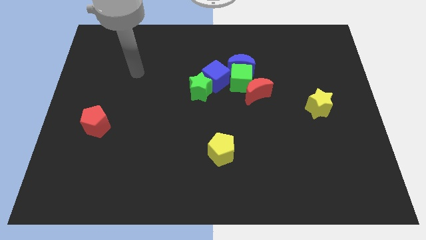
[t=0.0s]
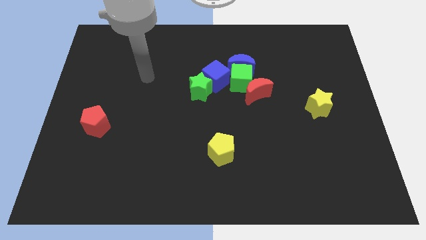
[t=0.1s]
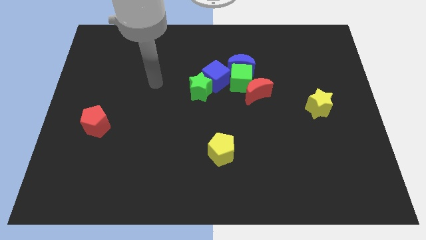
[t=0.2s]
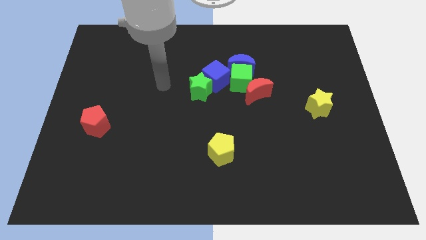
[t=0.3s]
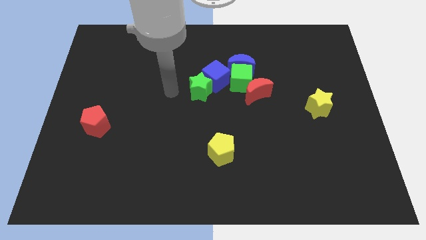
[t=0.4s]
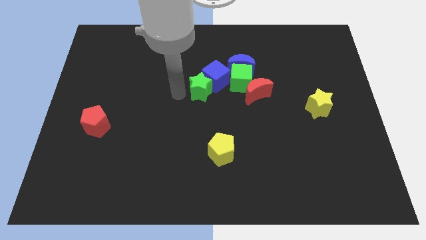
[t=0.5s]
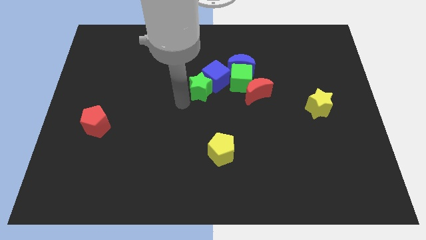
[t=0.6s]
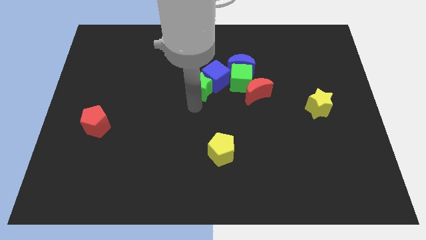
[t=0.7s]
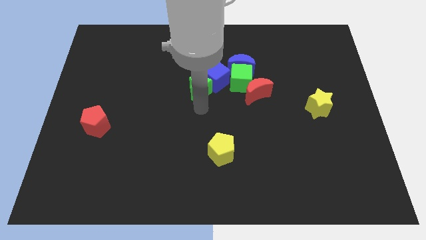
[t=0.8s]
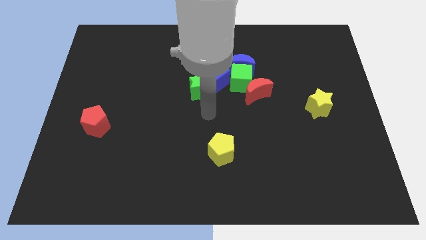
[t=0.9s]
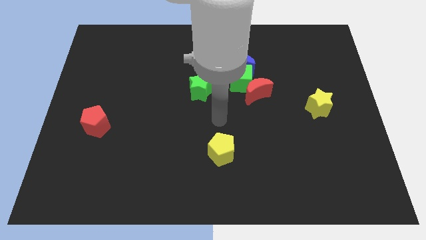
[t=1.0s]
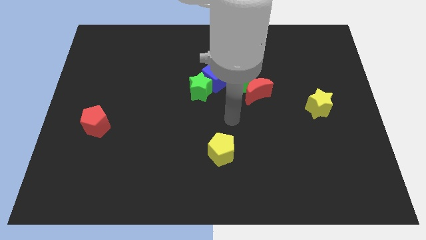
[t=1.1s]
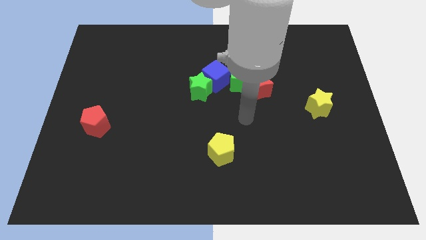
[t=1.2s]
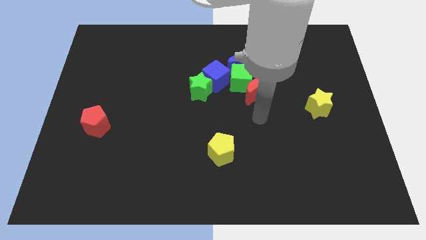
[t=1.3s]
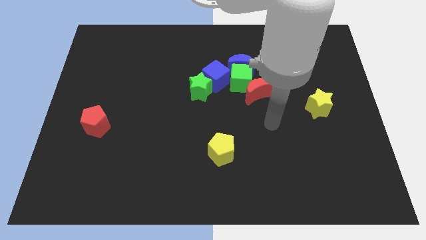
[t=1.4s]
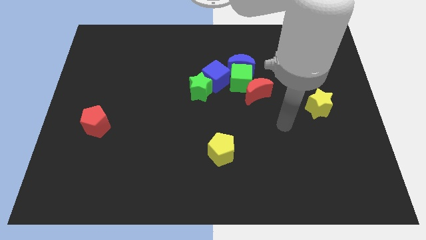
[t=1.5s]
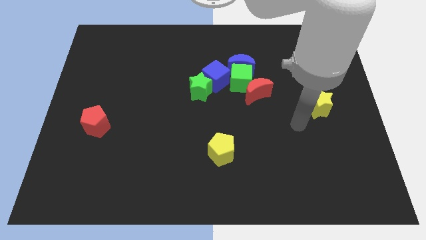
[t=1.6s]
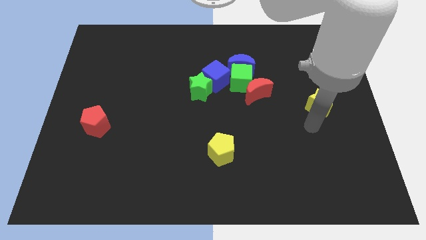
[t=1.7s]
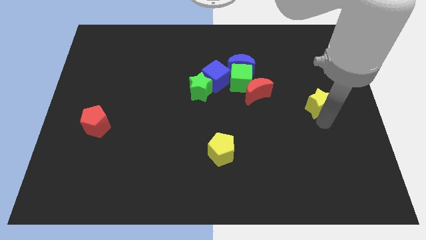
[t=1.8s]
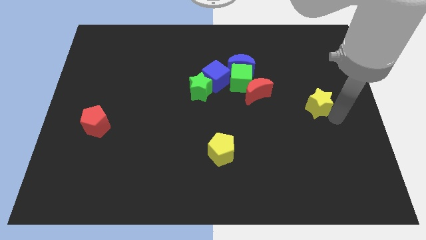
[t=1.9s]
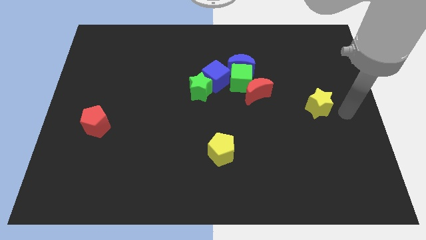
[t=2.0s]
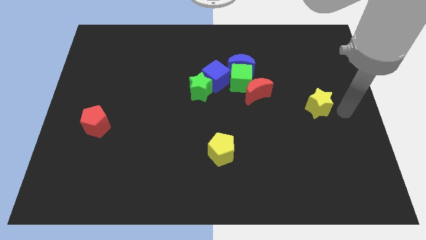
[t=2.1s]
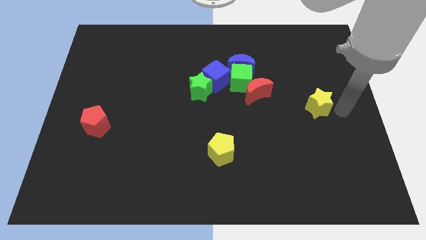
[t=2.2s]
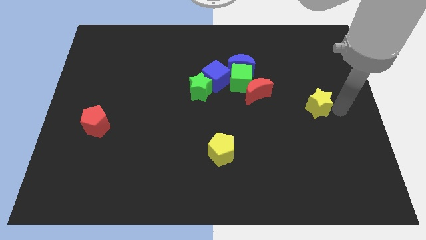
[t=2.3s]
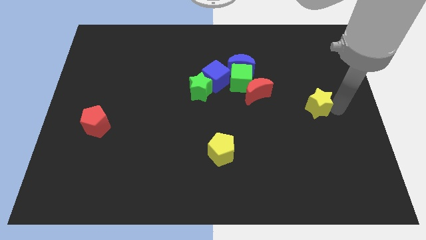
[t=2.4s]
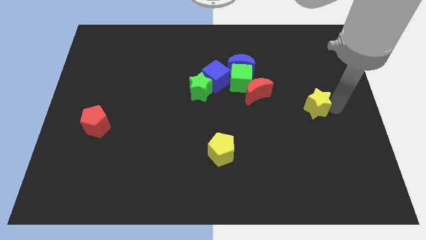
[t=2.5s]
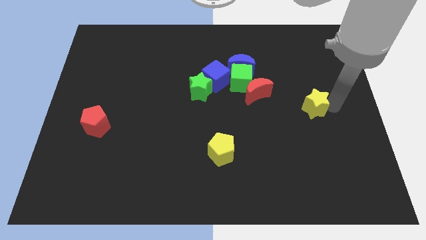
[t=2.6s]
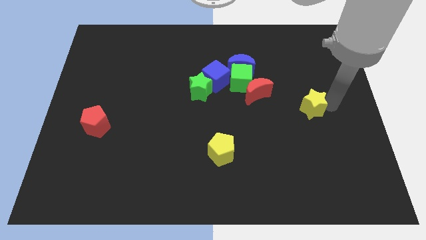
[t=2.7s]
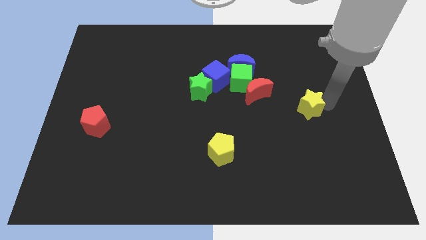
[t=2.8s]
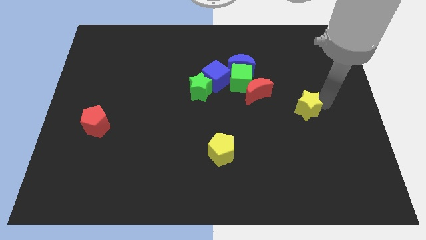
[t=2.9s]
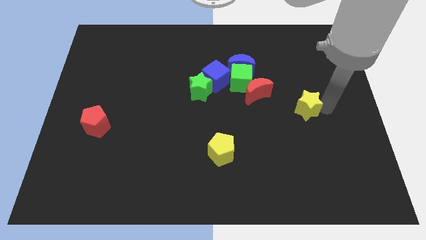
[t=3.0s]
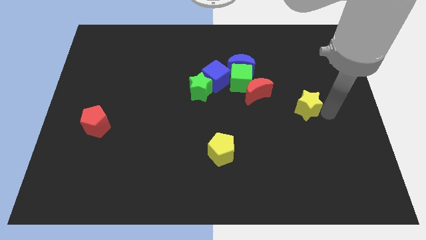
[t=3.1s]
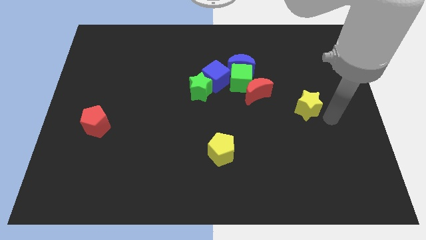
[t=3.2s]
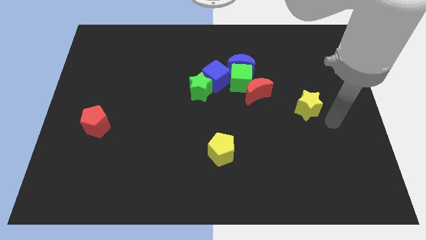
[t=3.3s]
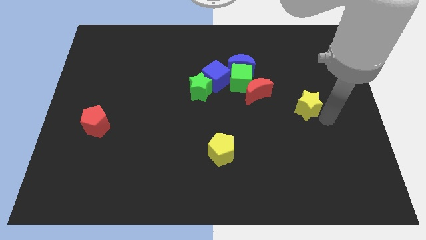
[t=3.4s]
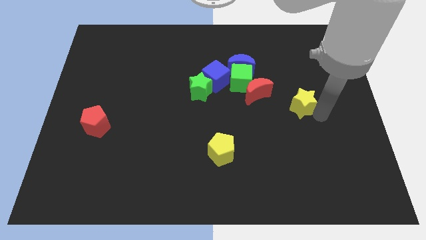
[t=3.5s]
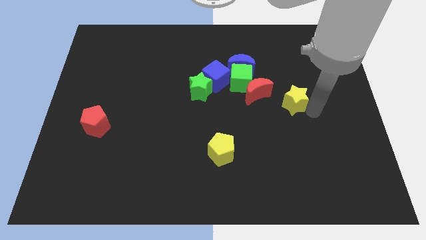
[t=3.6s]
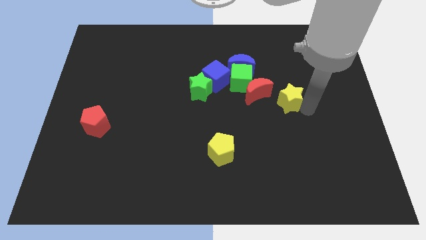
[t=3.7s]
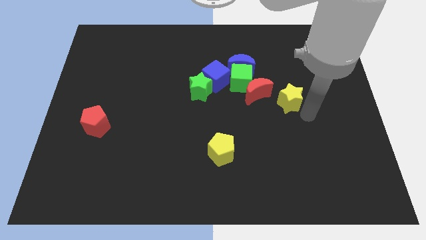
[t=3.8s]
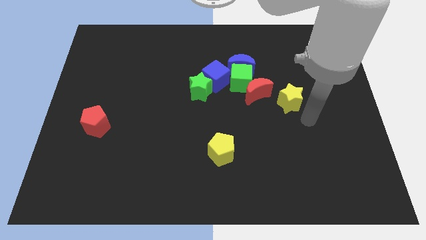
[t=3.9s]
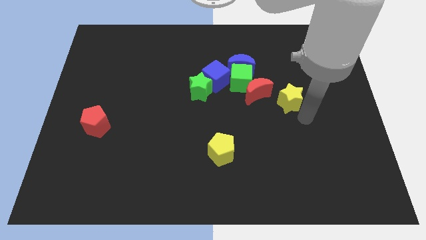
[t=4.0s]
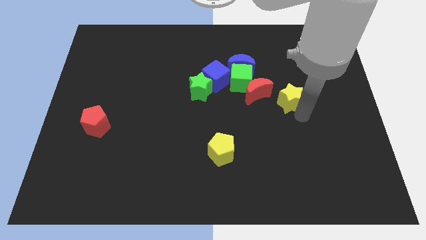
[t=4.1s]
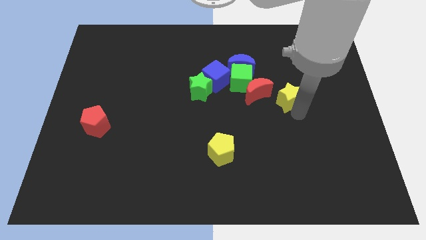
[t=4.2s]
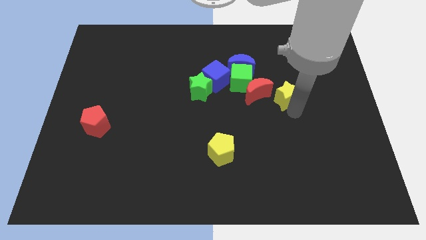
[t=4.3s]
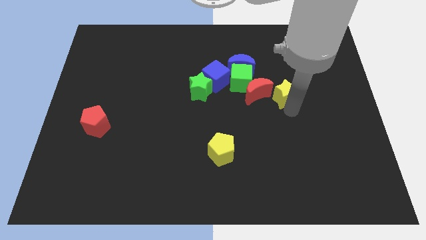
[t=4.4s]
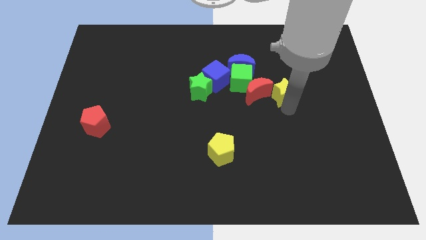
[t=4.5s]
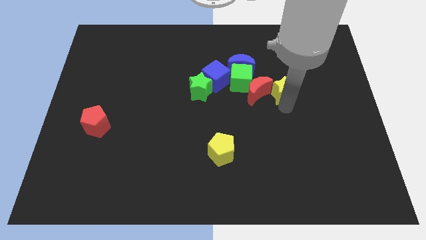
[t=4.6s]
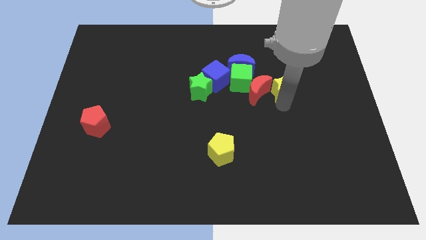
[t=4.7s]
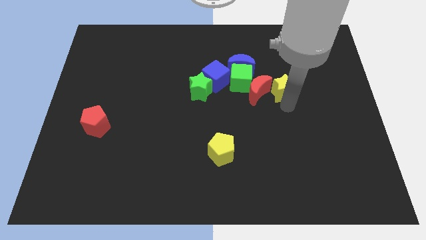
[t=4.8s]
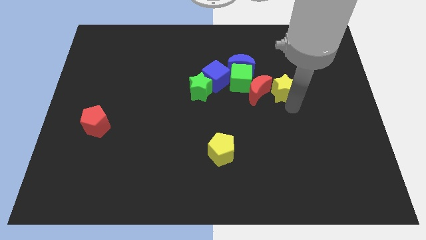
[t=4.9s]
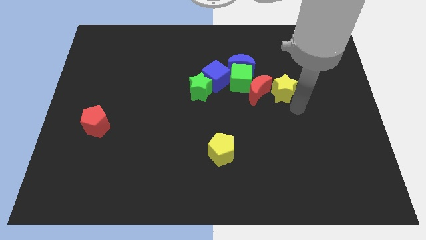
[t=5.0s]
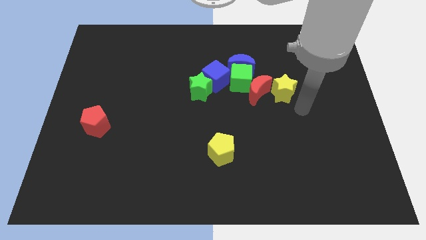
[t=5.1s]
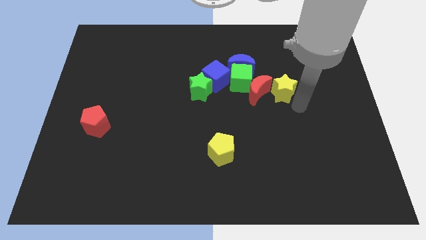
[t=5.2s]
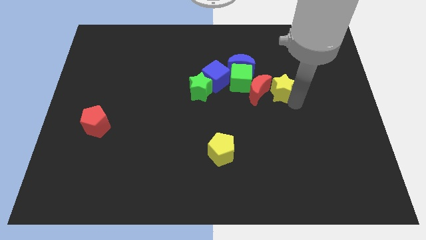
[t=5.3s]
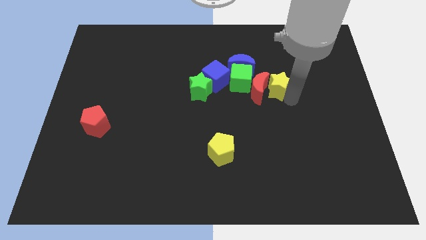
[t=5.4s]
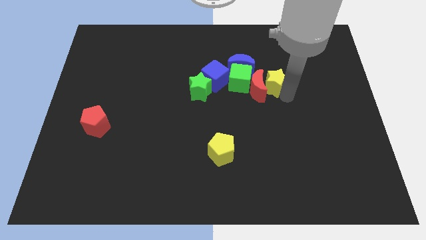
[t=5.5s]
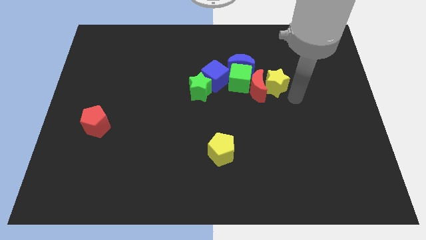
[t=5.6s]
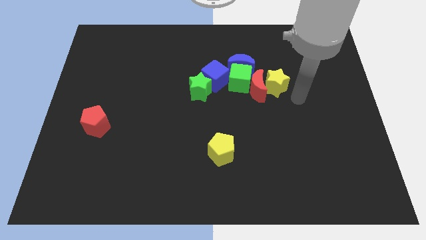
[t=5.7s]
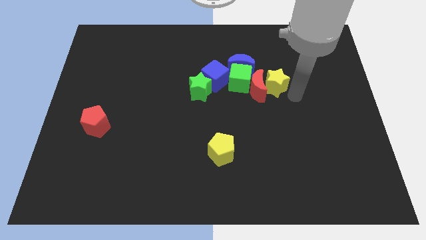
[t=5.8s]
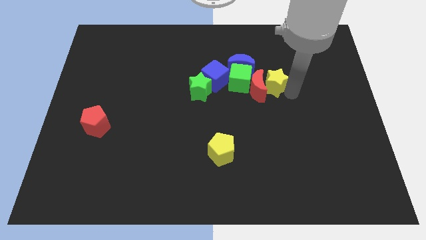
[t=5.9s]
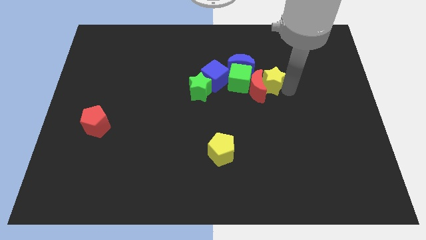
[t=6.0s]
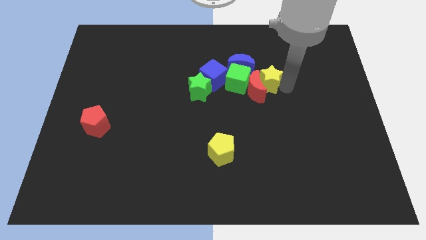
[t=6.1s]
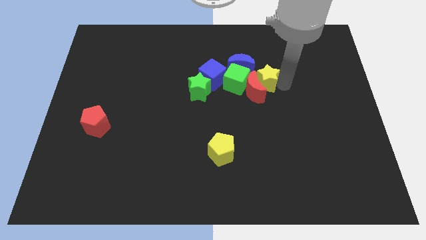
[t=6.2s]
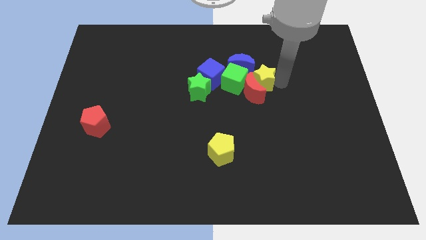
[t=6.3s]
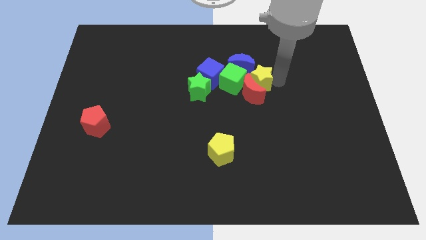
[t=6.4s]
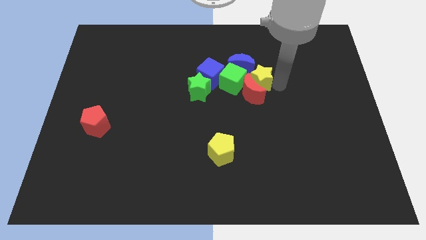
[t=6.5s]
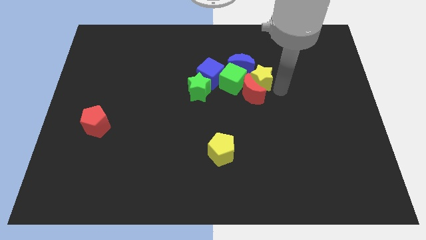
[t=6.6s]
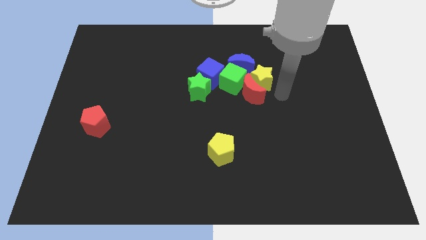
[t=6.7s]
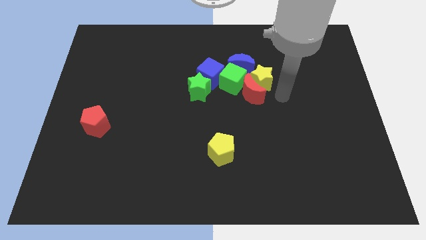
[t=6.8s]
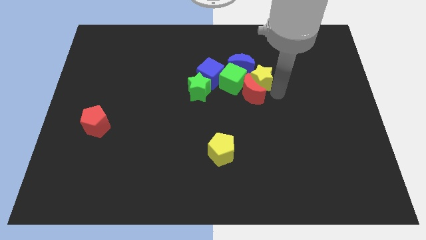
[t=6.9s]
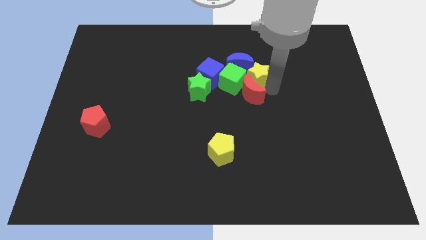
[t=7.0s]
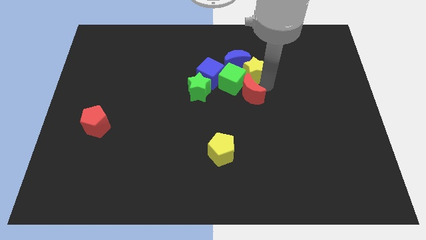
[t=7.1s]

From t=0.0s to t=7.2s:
push the yellow star to the blue moon
